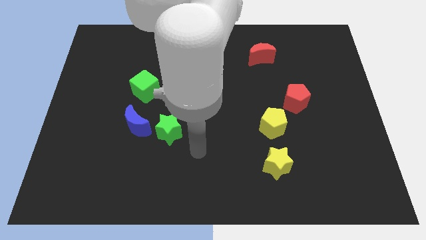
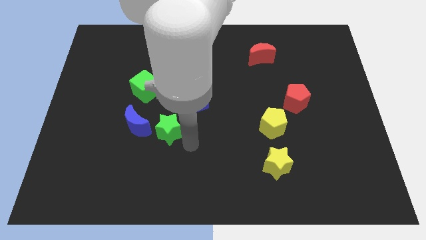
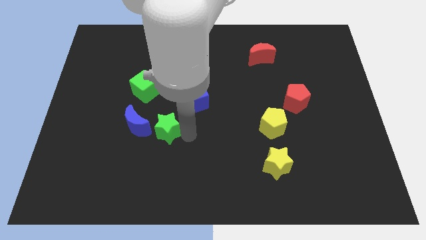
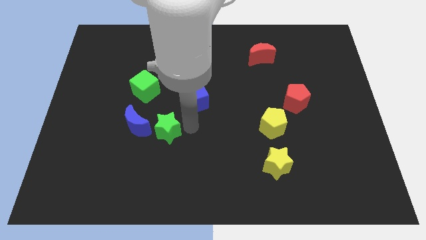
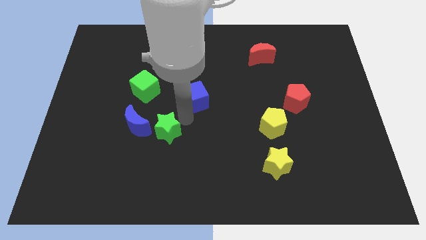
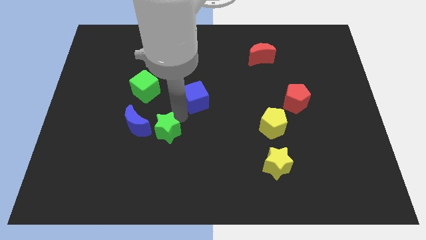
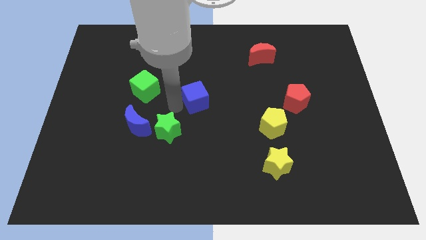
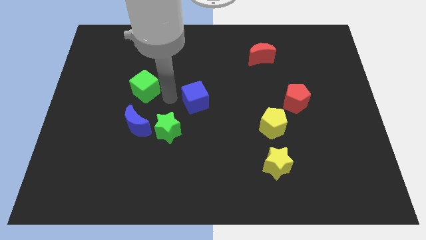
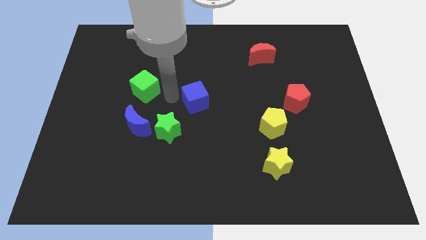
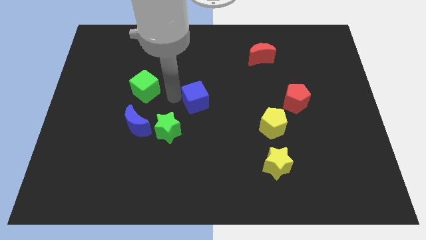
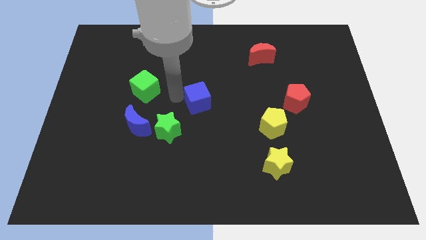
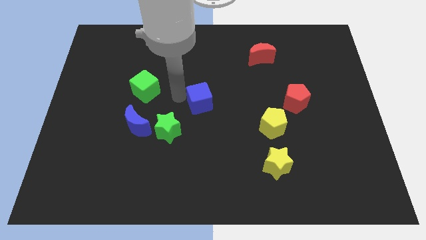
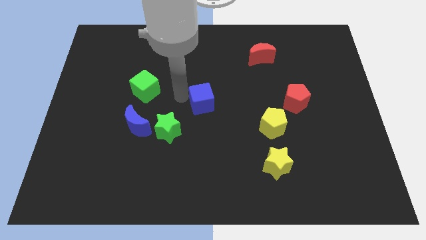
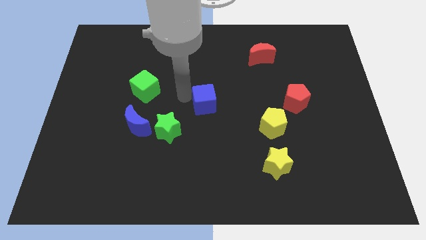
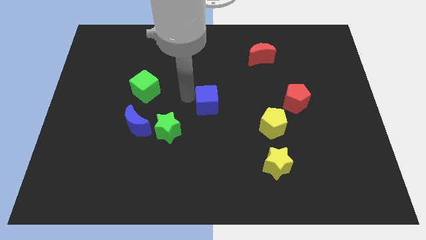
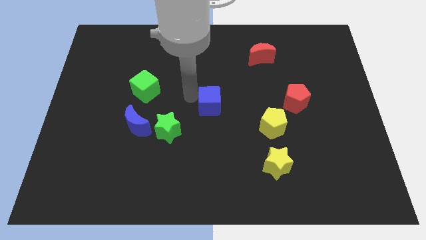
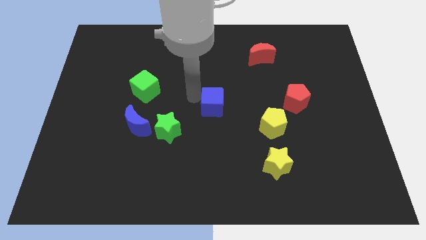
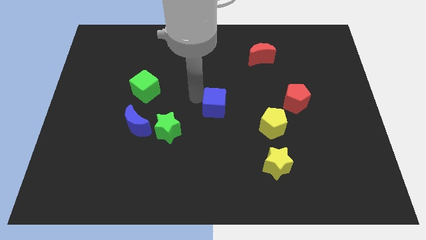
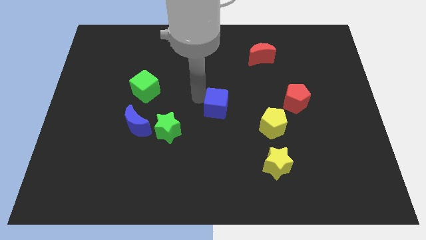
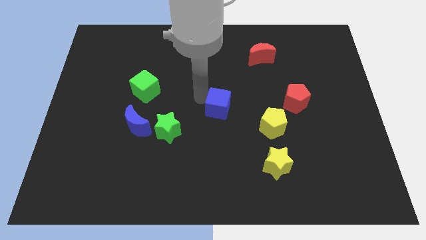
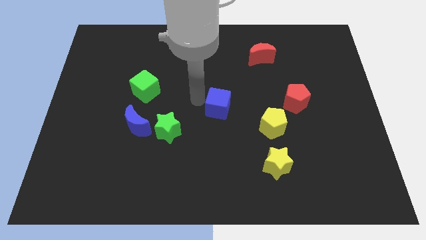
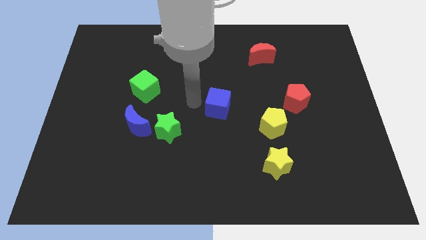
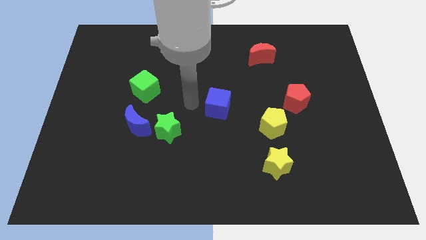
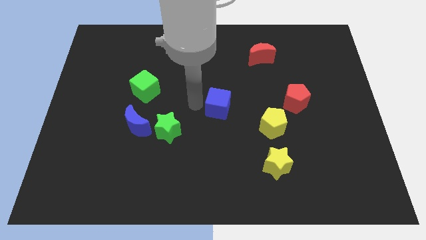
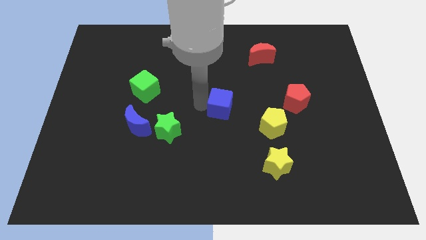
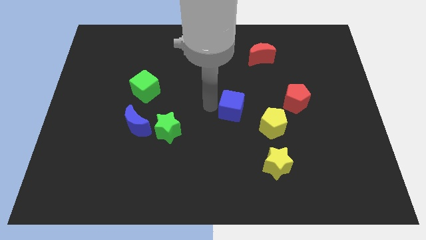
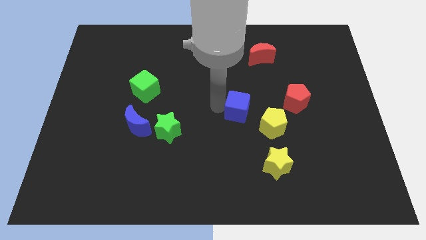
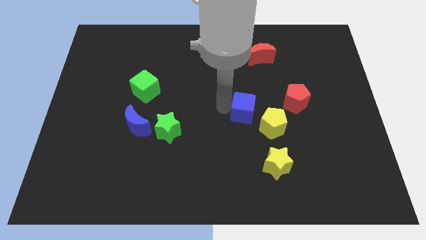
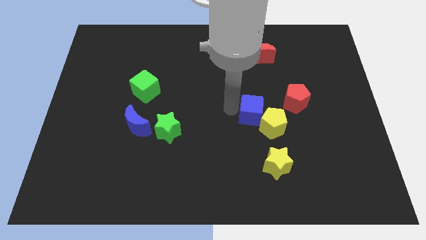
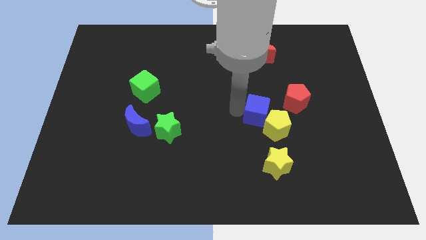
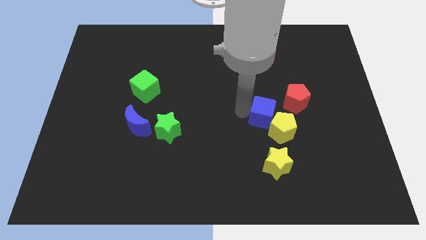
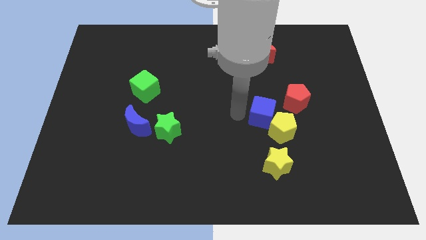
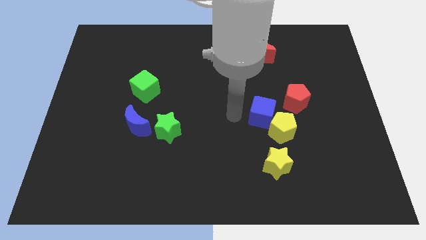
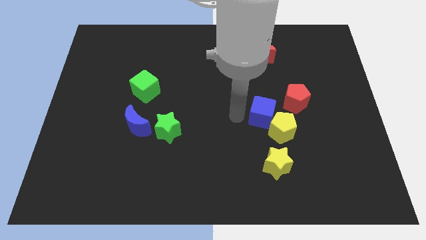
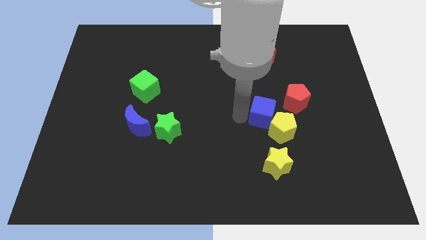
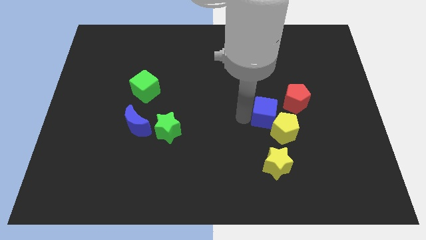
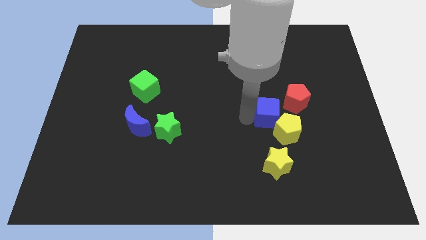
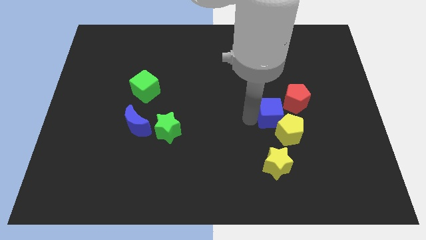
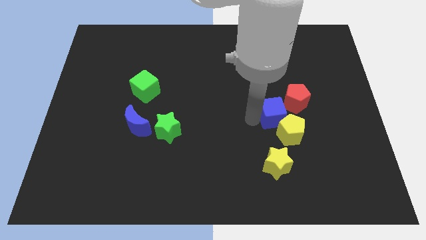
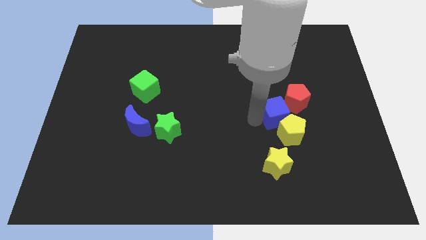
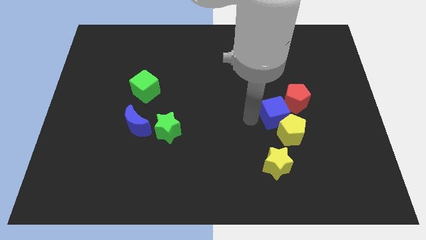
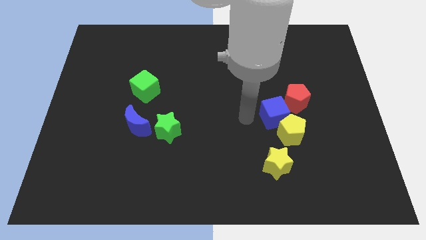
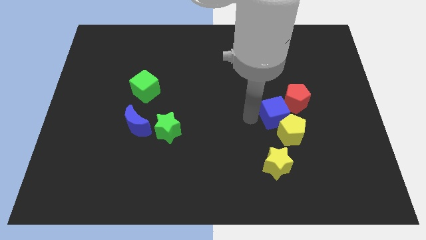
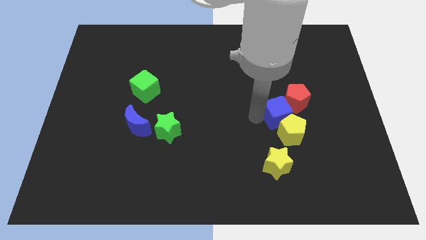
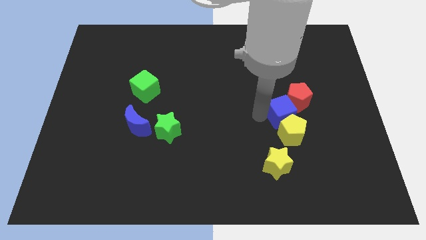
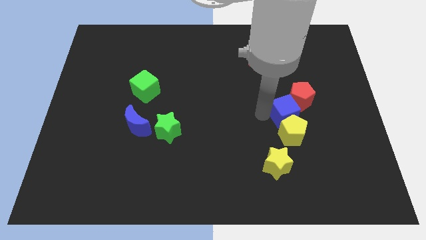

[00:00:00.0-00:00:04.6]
slide the blue cube right

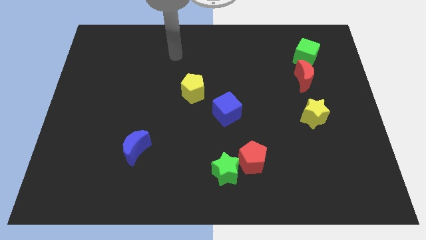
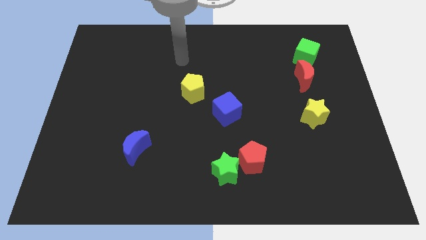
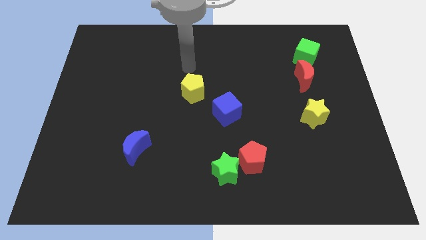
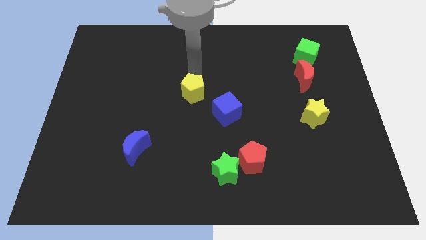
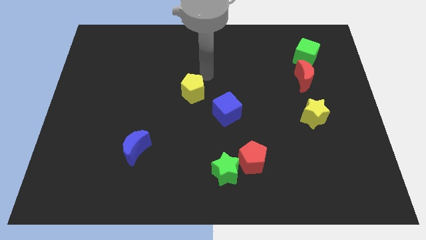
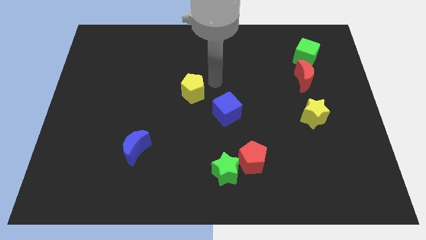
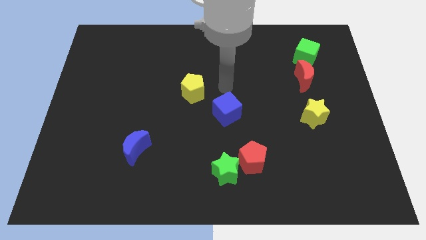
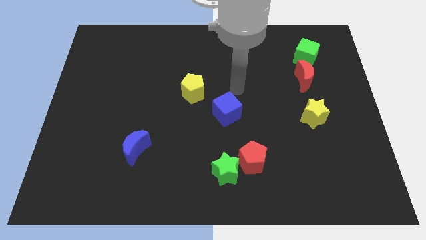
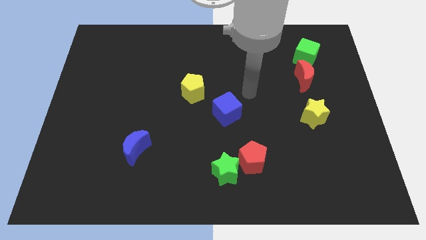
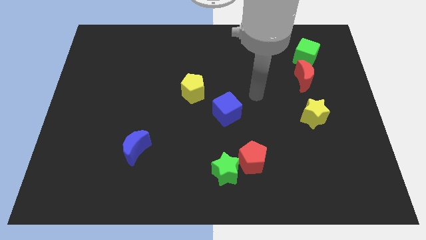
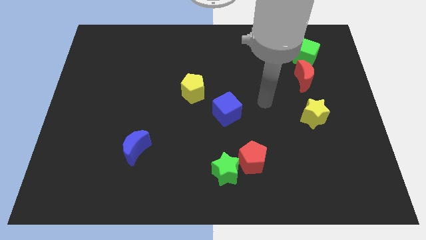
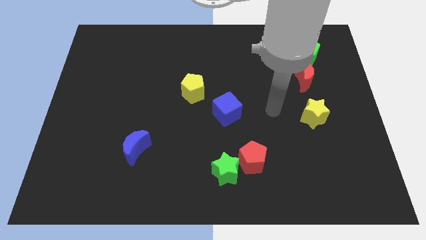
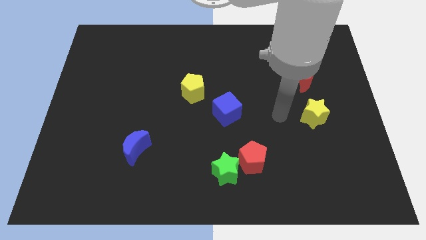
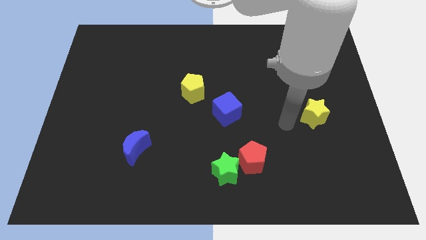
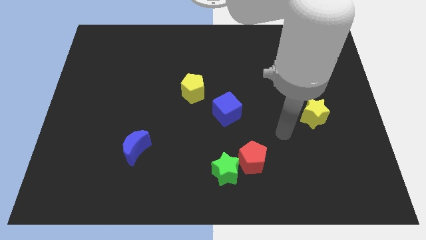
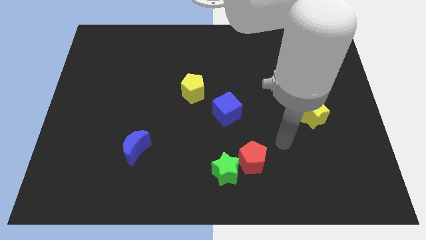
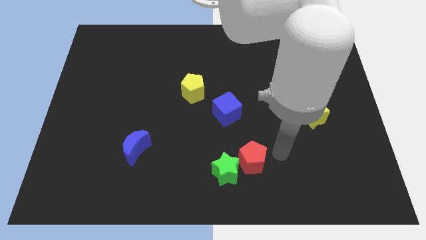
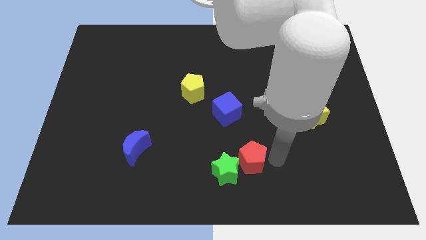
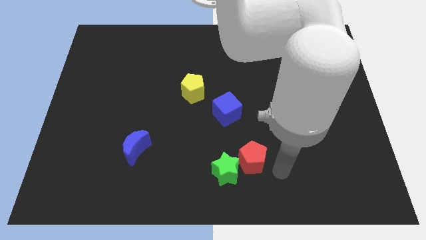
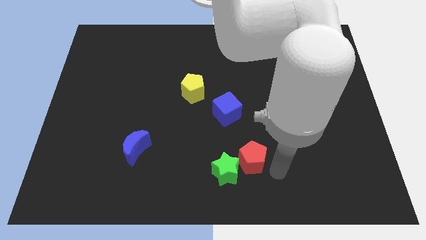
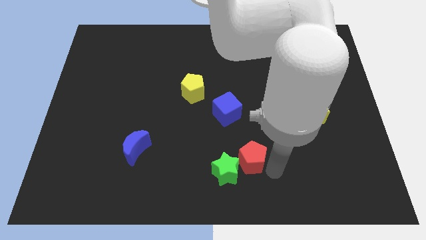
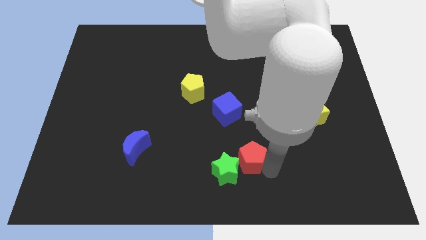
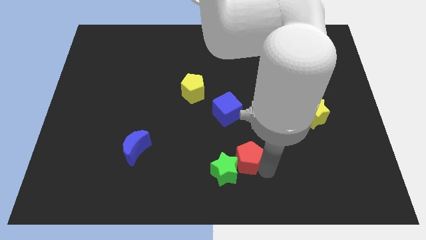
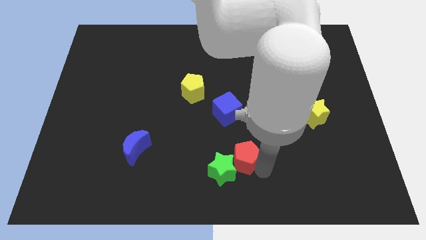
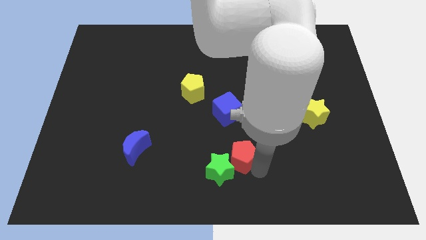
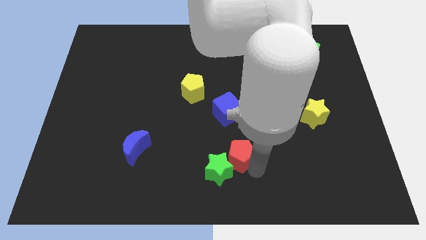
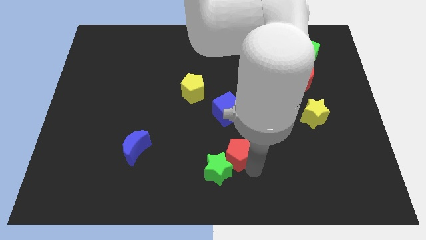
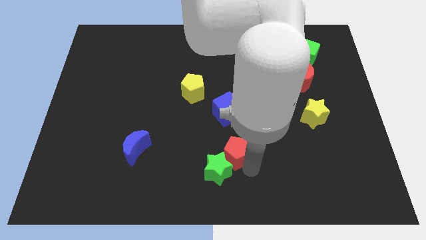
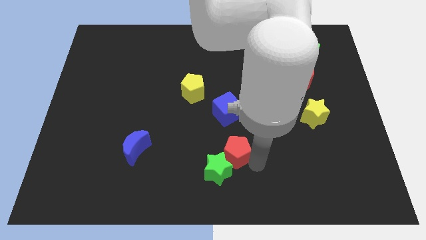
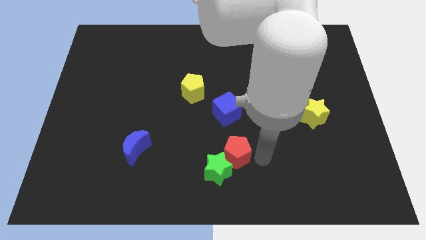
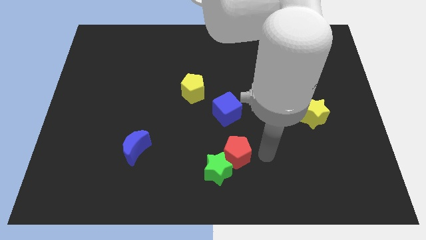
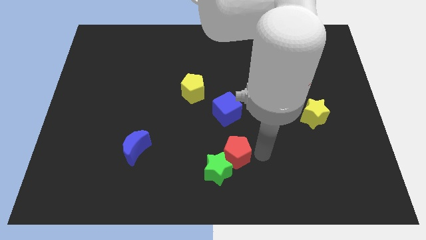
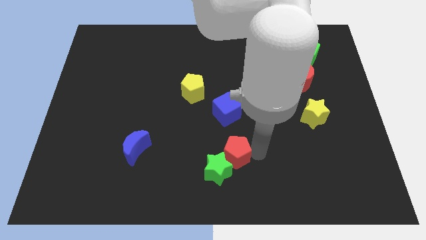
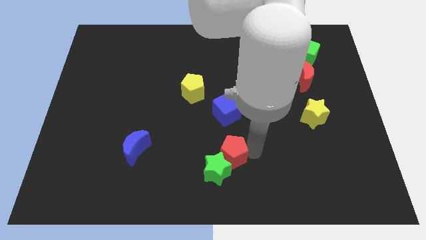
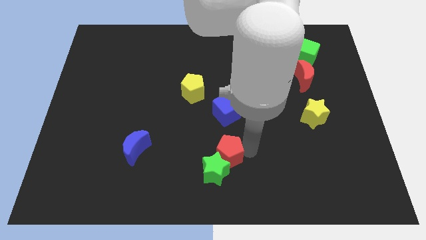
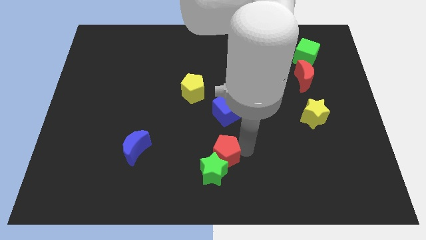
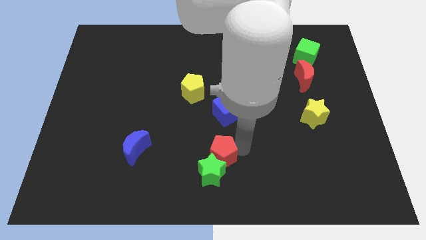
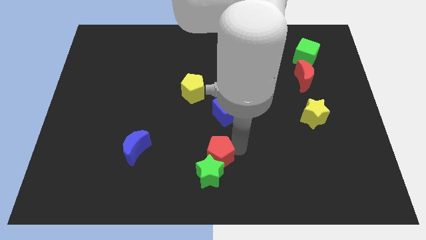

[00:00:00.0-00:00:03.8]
push the red pentagon left slightly
